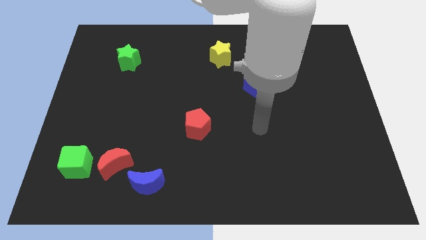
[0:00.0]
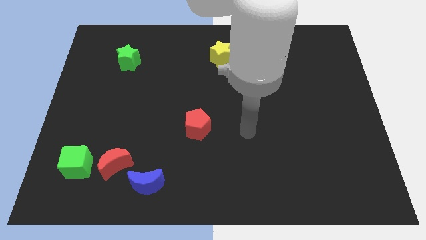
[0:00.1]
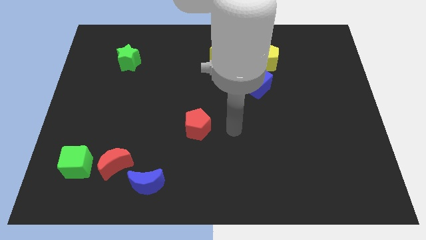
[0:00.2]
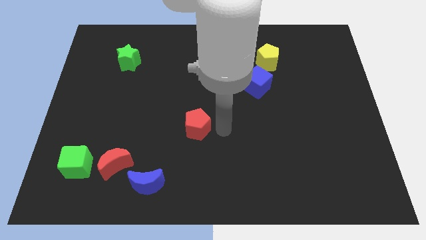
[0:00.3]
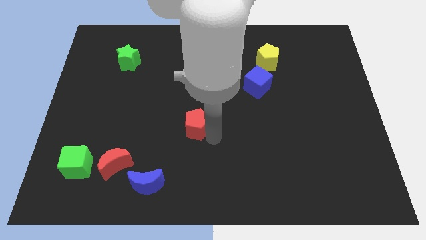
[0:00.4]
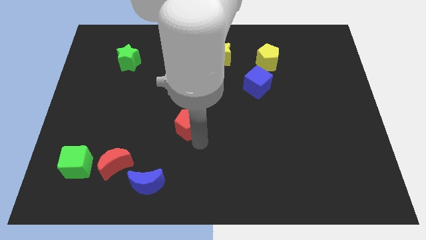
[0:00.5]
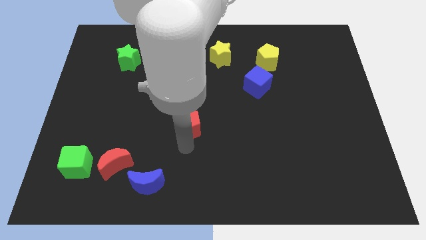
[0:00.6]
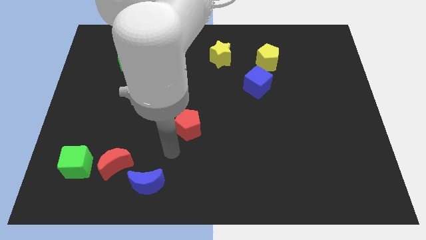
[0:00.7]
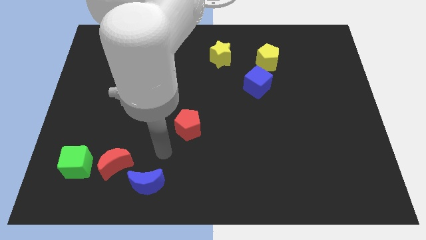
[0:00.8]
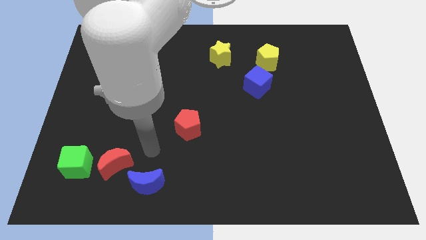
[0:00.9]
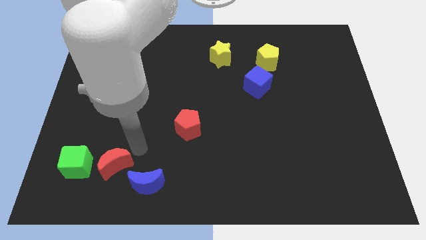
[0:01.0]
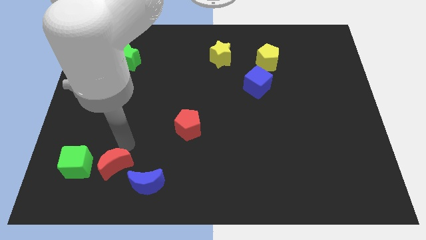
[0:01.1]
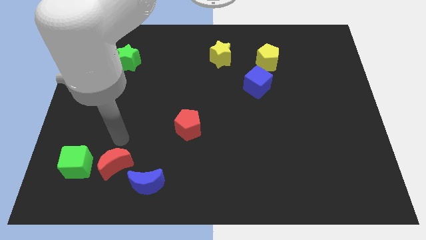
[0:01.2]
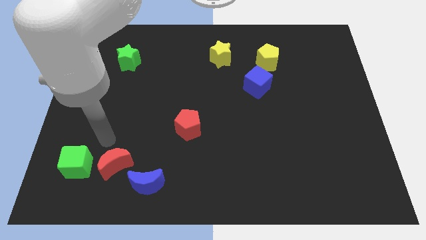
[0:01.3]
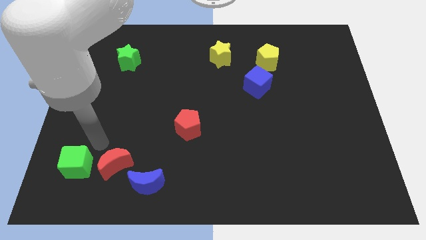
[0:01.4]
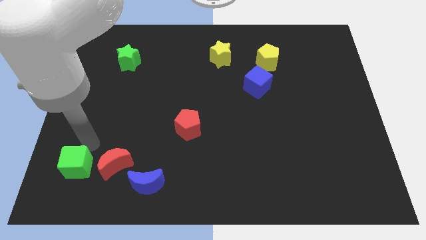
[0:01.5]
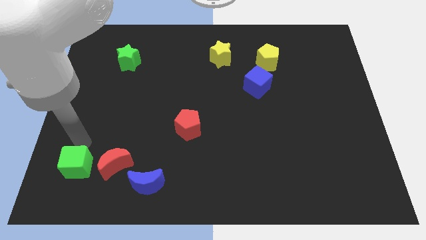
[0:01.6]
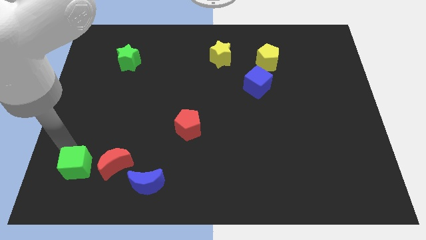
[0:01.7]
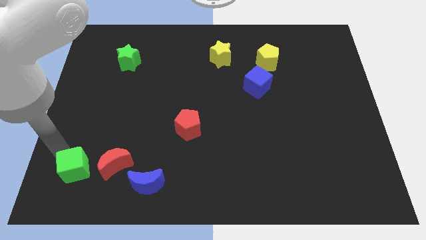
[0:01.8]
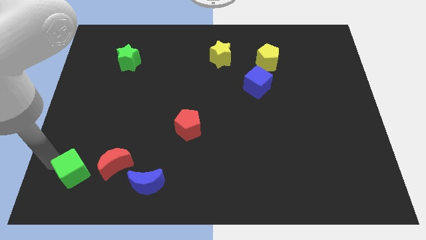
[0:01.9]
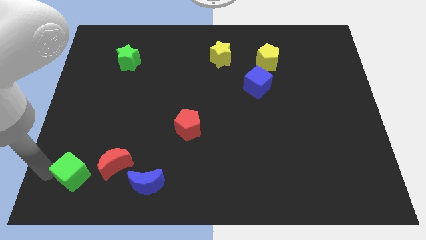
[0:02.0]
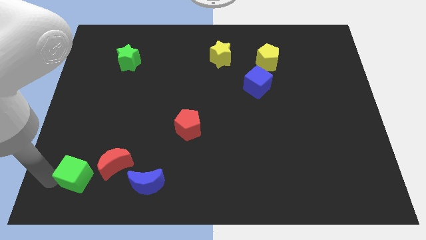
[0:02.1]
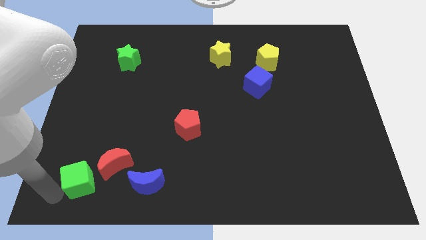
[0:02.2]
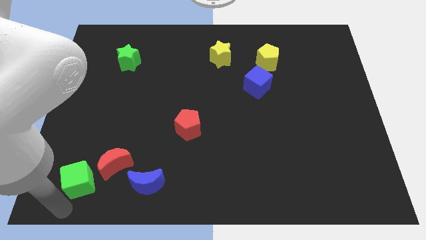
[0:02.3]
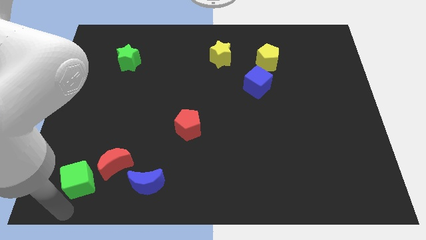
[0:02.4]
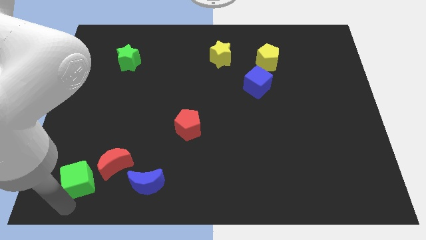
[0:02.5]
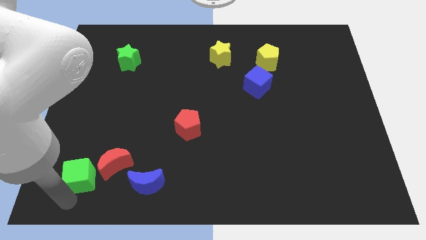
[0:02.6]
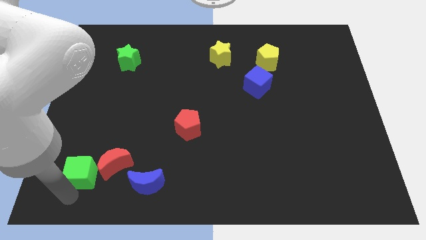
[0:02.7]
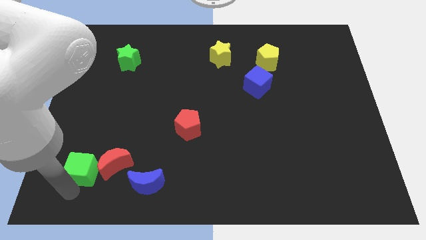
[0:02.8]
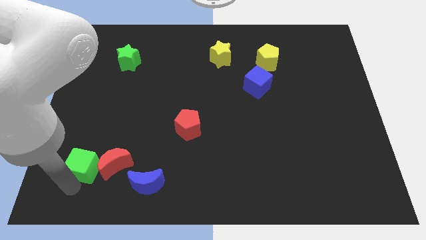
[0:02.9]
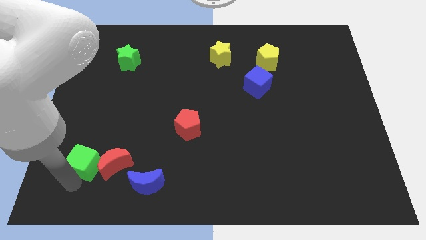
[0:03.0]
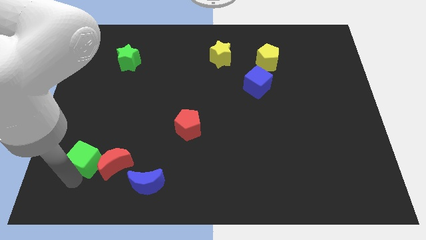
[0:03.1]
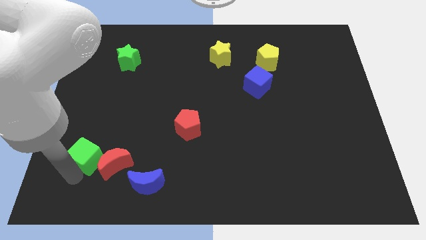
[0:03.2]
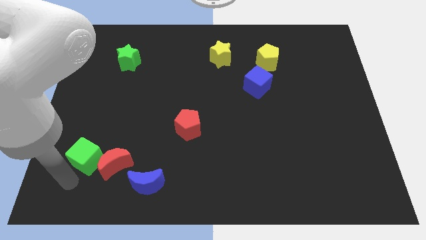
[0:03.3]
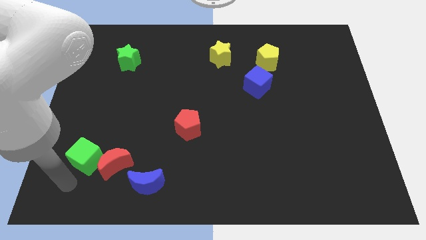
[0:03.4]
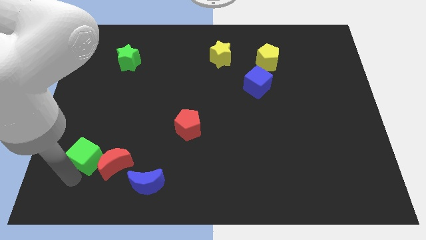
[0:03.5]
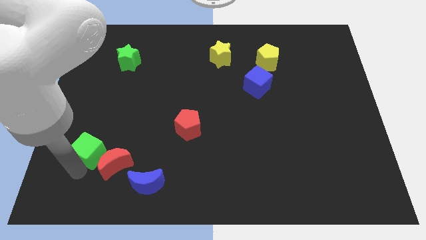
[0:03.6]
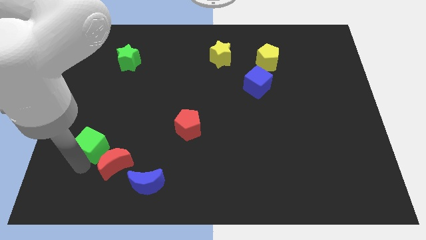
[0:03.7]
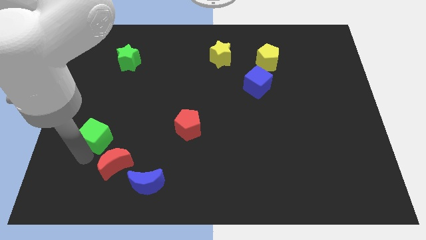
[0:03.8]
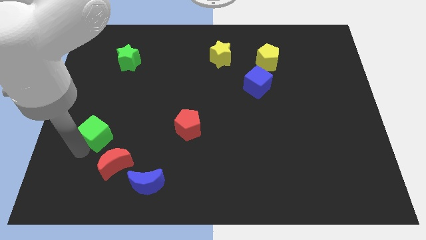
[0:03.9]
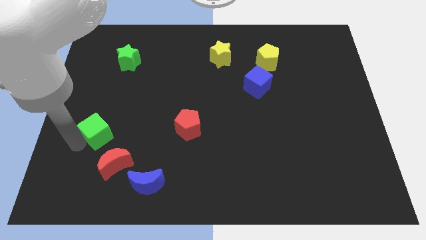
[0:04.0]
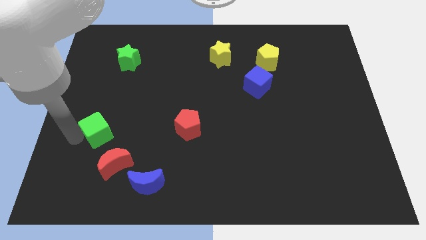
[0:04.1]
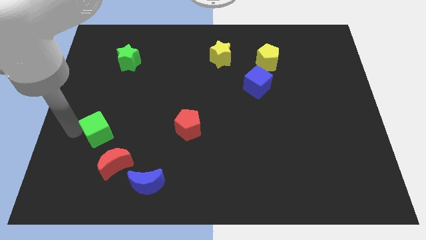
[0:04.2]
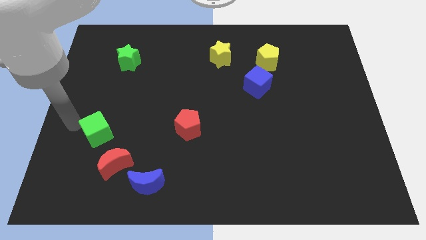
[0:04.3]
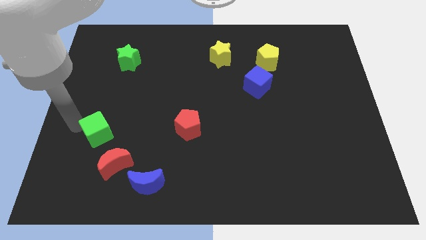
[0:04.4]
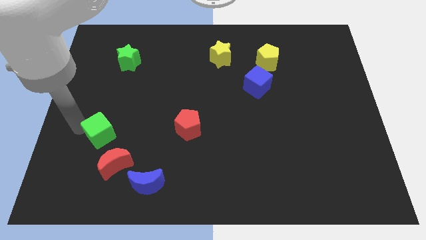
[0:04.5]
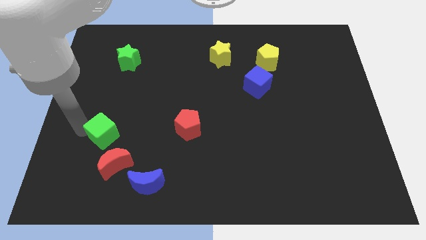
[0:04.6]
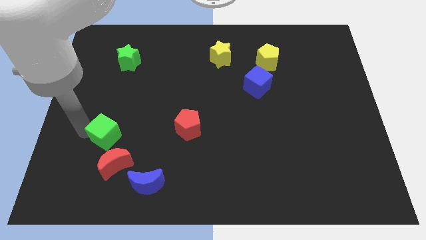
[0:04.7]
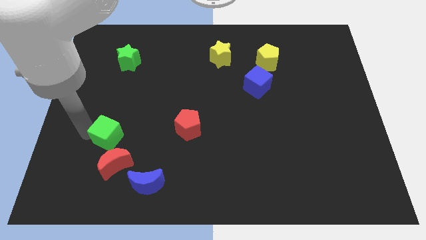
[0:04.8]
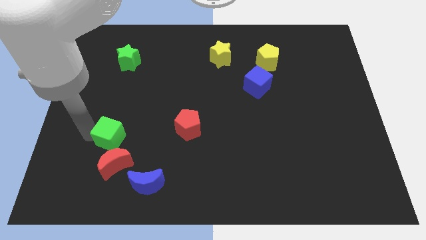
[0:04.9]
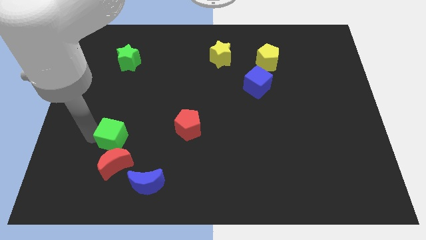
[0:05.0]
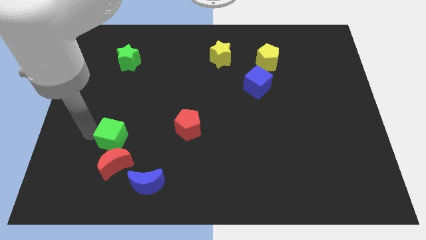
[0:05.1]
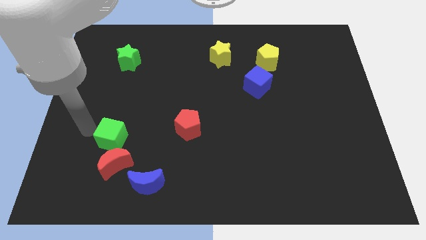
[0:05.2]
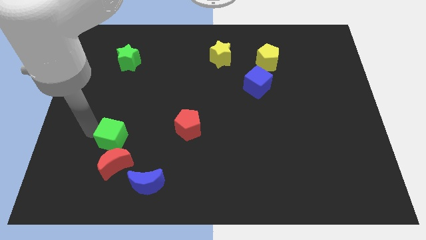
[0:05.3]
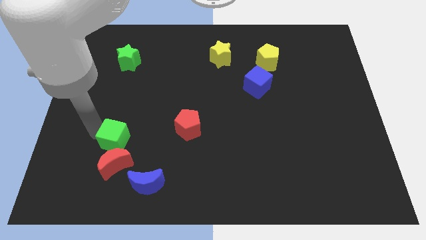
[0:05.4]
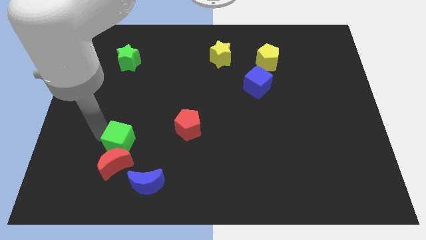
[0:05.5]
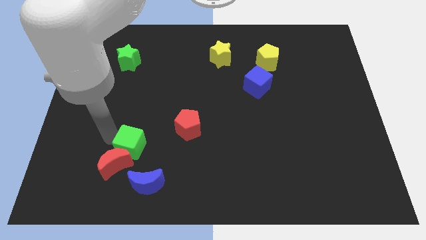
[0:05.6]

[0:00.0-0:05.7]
push the green cube right somewhat

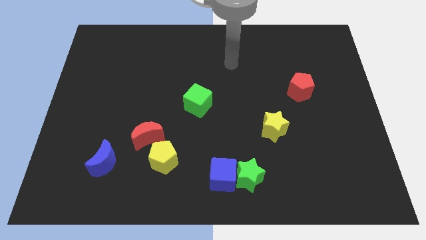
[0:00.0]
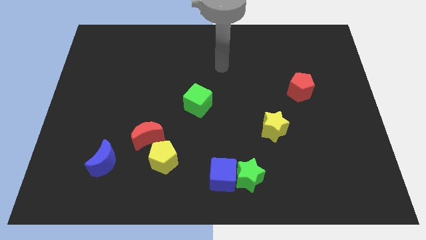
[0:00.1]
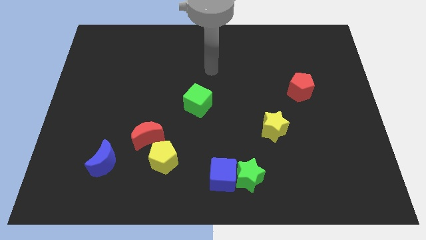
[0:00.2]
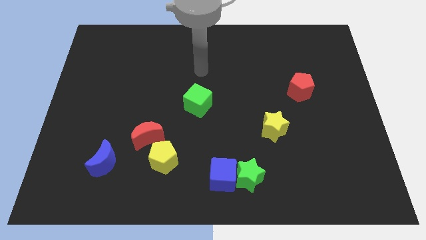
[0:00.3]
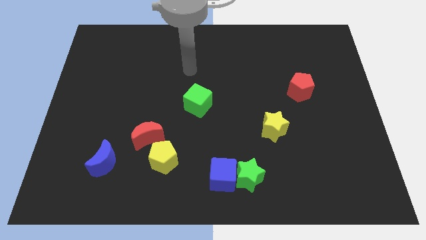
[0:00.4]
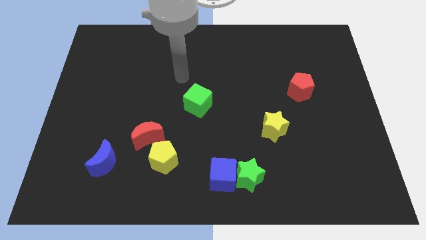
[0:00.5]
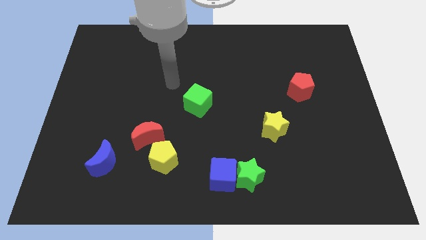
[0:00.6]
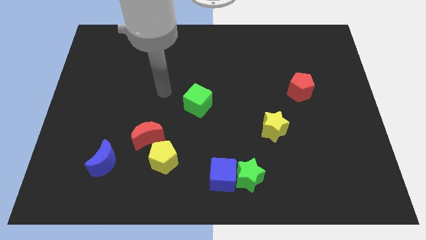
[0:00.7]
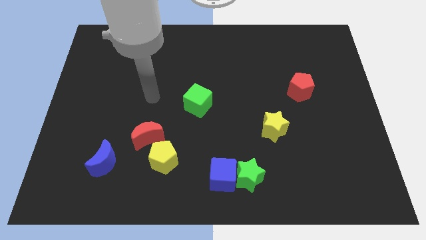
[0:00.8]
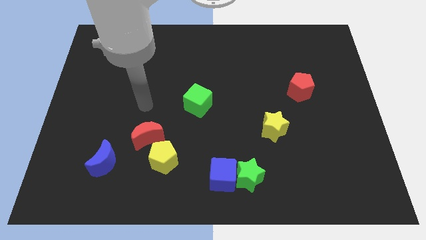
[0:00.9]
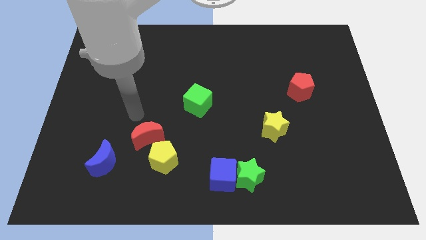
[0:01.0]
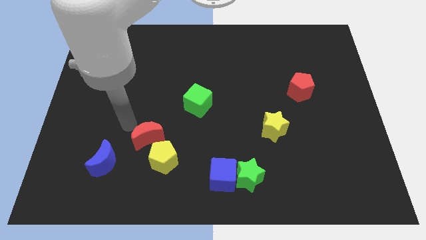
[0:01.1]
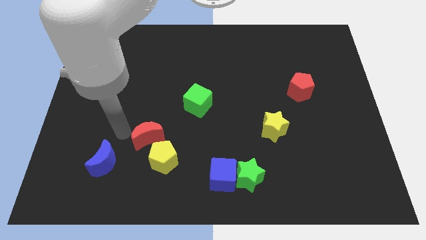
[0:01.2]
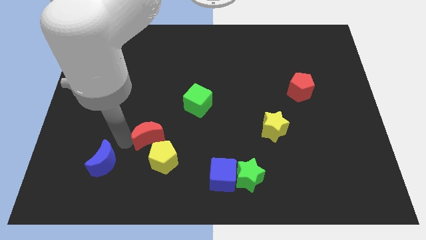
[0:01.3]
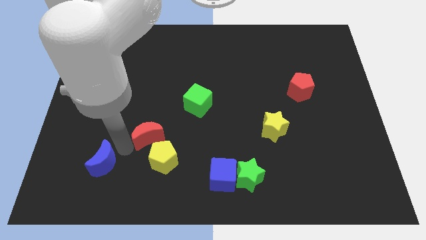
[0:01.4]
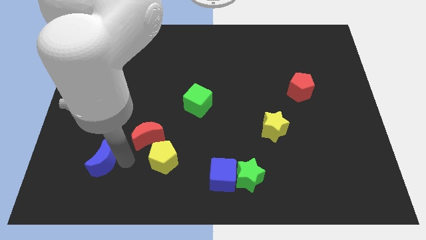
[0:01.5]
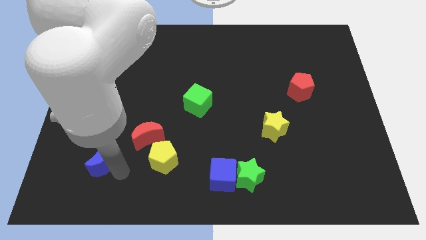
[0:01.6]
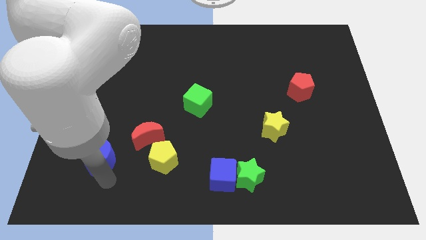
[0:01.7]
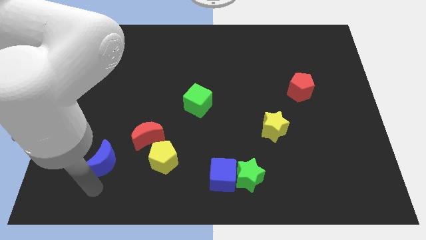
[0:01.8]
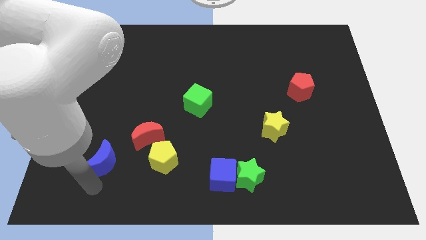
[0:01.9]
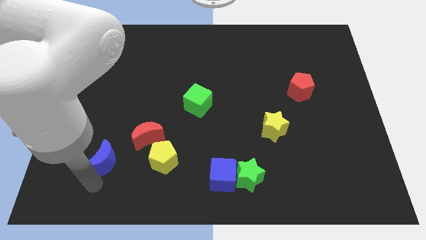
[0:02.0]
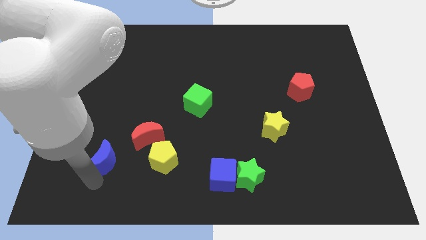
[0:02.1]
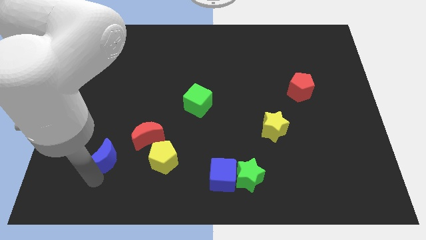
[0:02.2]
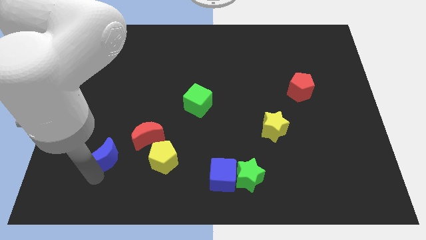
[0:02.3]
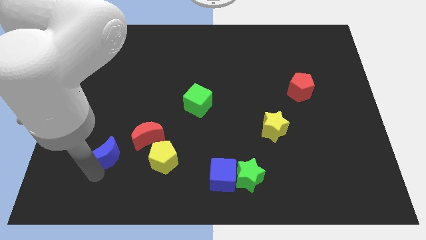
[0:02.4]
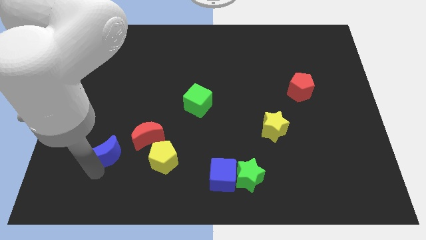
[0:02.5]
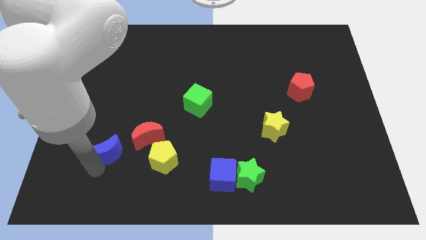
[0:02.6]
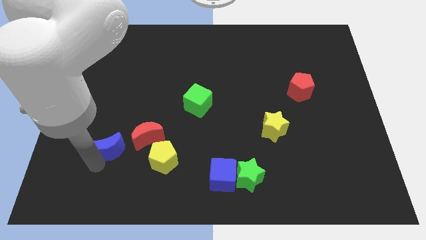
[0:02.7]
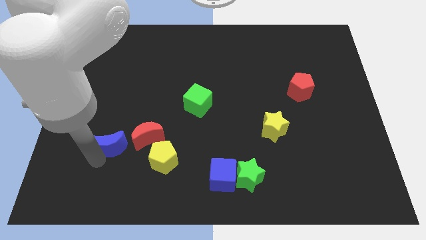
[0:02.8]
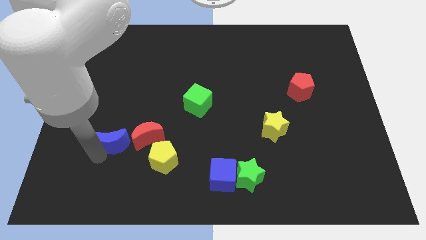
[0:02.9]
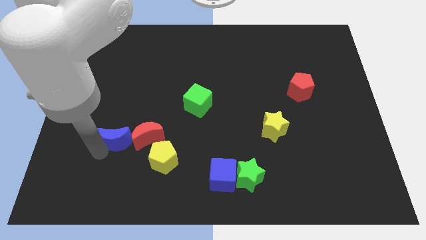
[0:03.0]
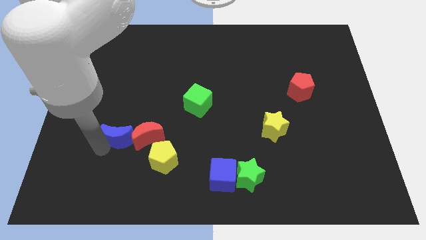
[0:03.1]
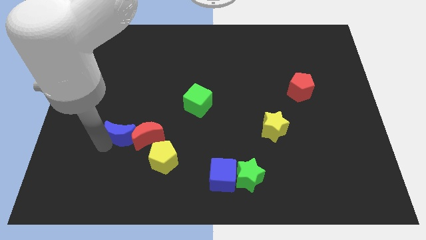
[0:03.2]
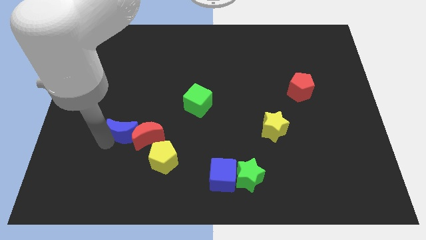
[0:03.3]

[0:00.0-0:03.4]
slightly push the blue moon upwards and then to the right
